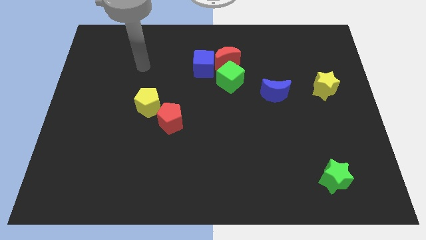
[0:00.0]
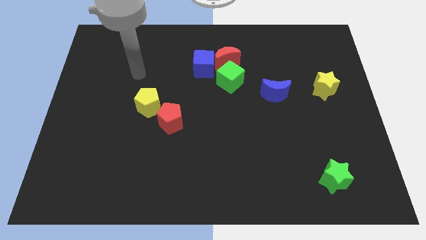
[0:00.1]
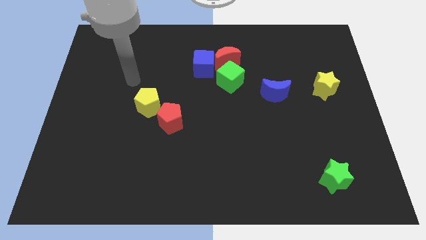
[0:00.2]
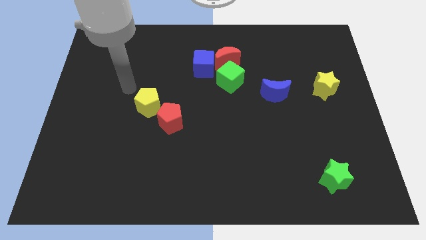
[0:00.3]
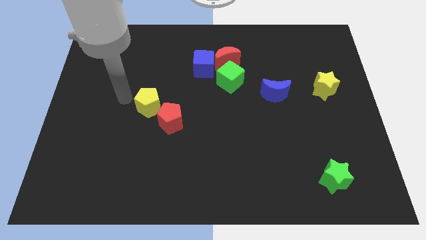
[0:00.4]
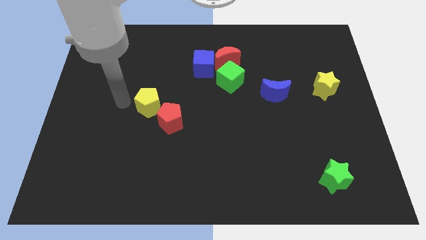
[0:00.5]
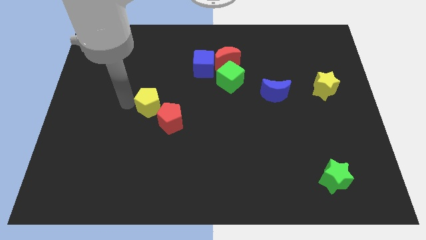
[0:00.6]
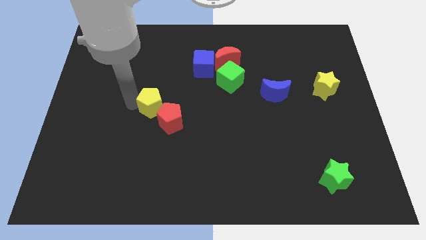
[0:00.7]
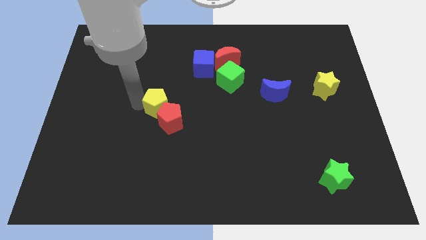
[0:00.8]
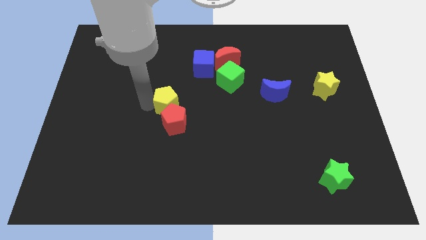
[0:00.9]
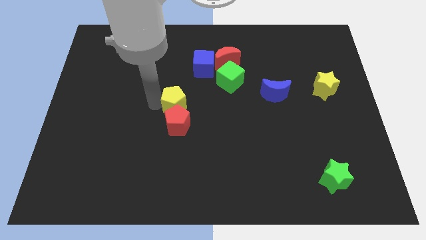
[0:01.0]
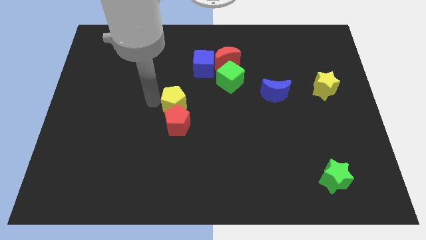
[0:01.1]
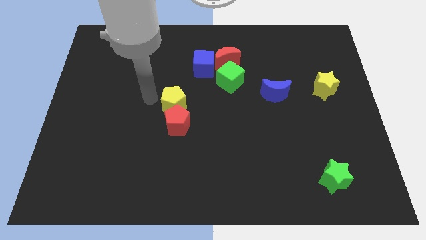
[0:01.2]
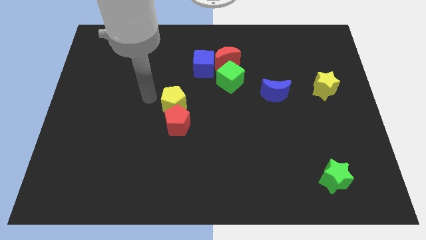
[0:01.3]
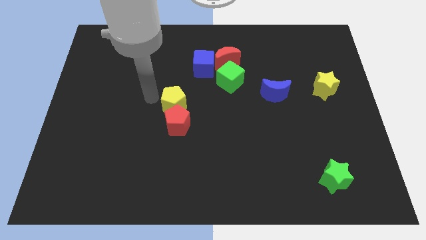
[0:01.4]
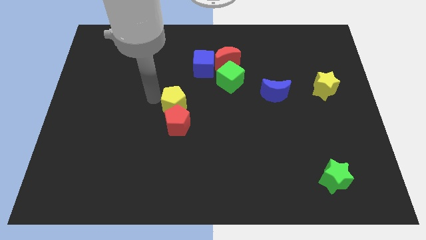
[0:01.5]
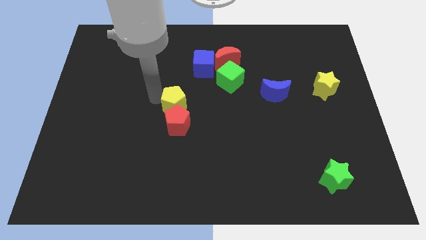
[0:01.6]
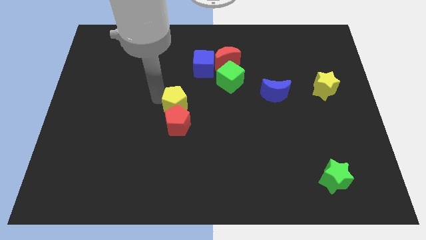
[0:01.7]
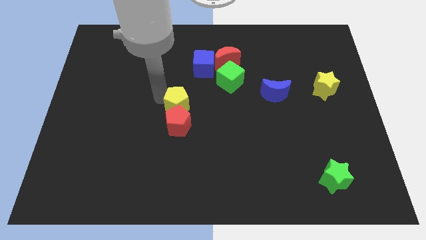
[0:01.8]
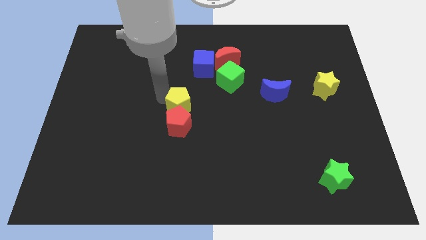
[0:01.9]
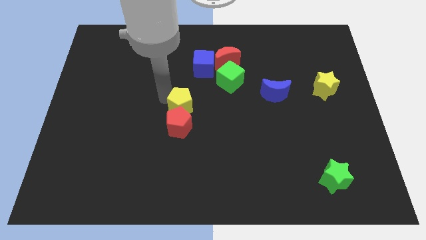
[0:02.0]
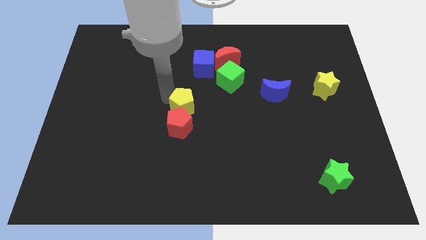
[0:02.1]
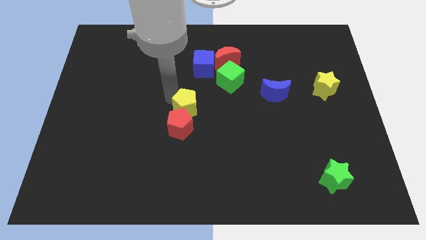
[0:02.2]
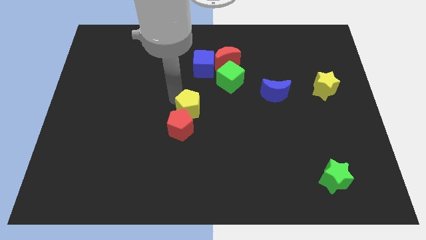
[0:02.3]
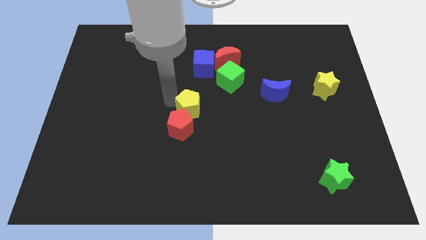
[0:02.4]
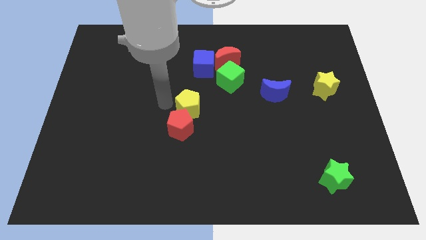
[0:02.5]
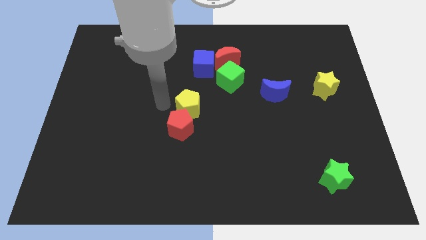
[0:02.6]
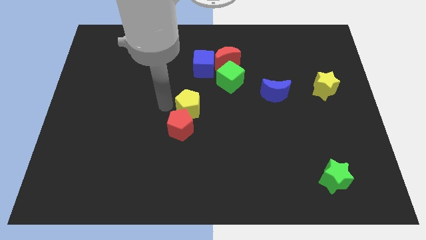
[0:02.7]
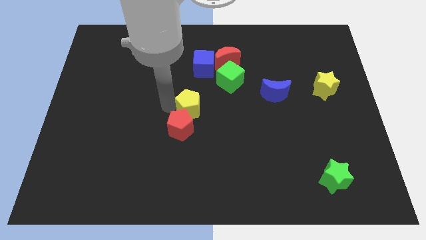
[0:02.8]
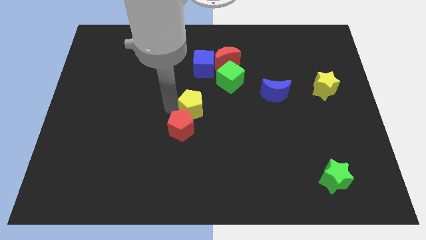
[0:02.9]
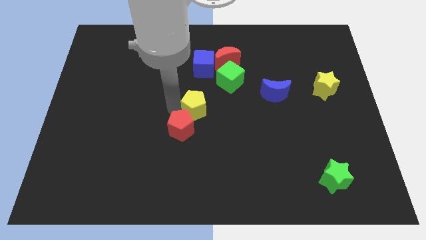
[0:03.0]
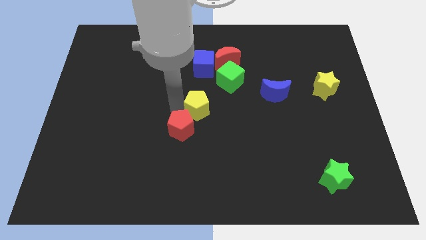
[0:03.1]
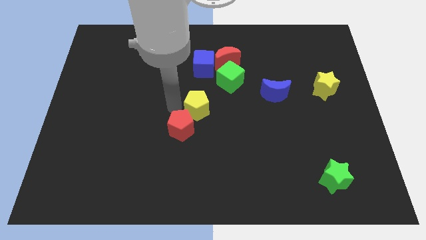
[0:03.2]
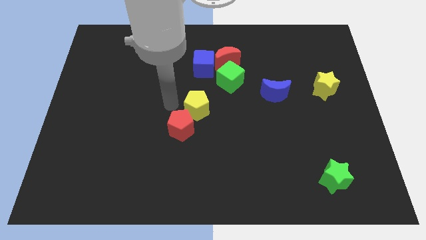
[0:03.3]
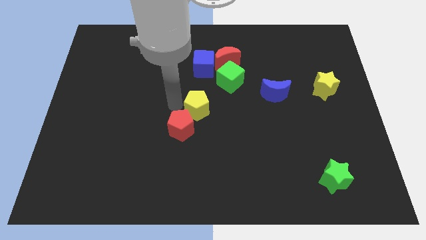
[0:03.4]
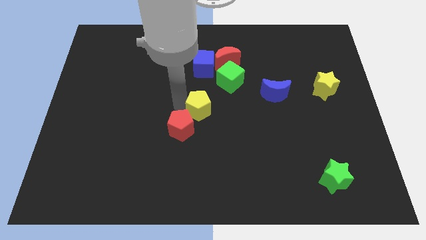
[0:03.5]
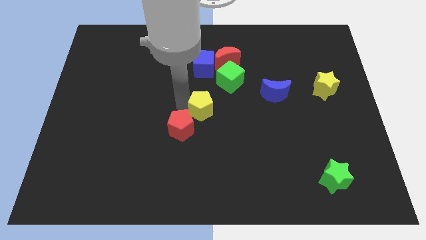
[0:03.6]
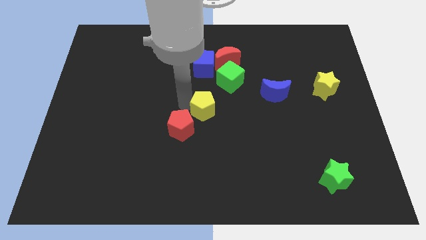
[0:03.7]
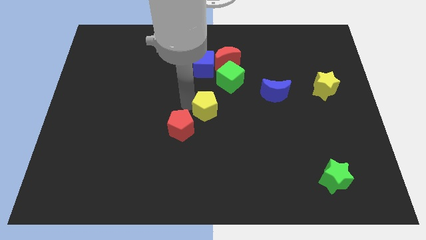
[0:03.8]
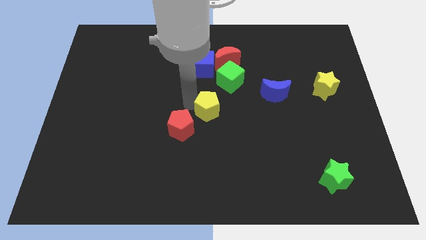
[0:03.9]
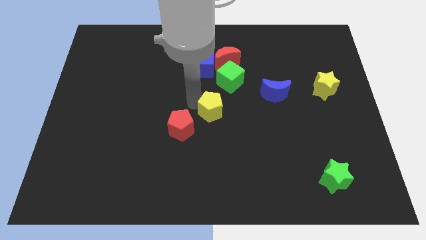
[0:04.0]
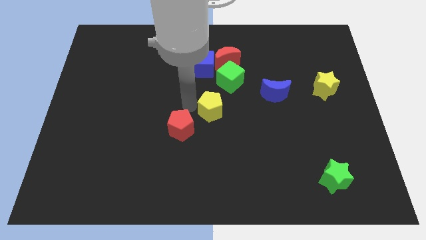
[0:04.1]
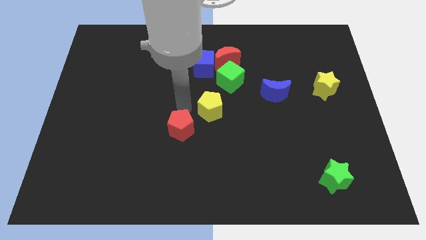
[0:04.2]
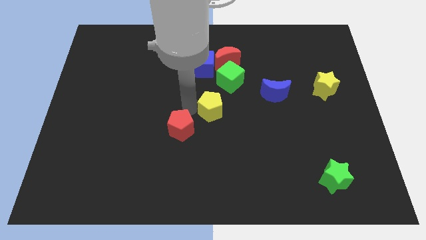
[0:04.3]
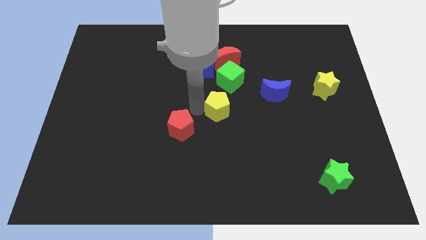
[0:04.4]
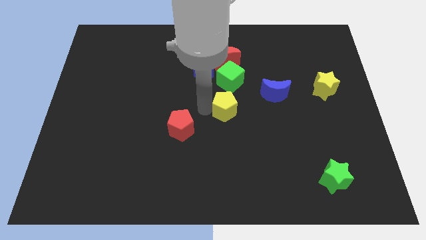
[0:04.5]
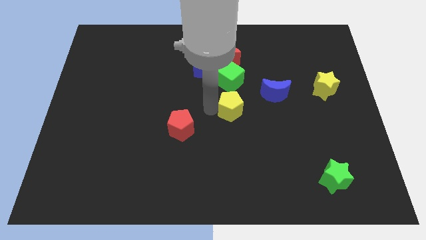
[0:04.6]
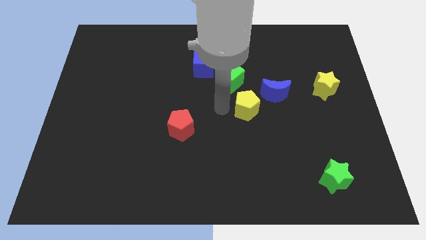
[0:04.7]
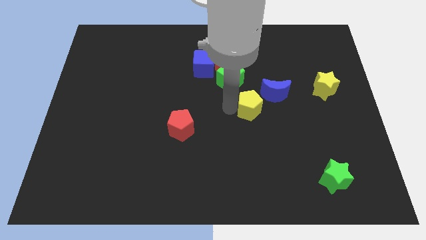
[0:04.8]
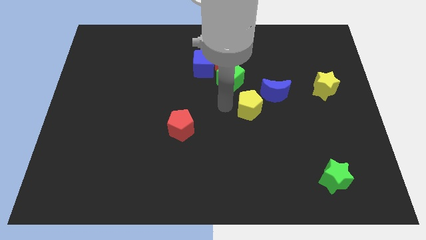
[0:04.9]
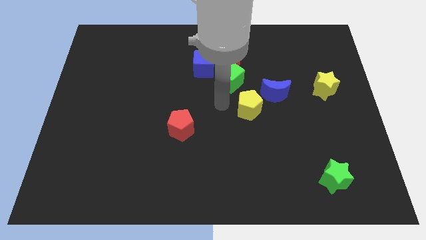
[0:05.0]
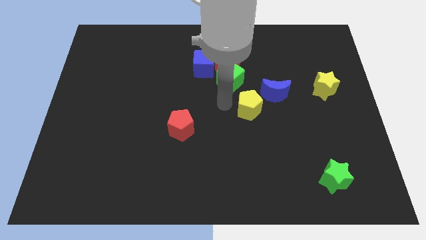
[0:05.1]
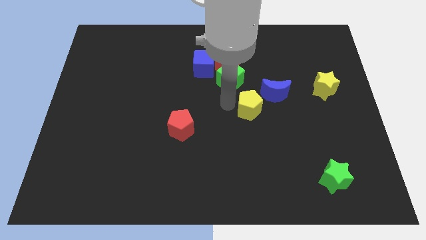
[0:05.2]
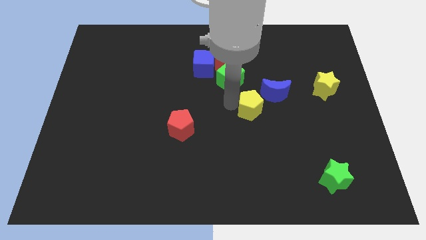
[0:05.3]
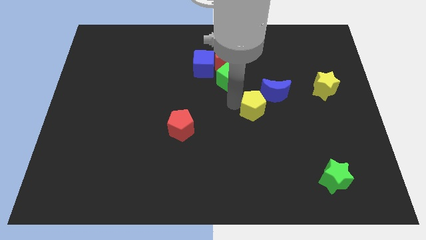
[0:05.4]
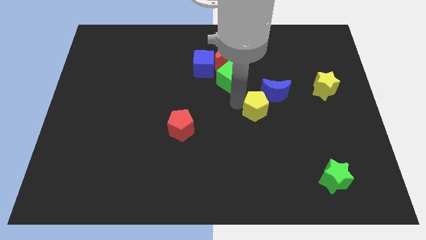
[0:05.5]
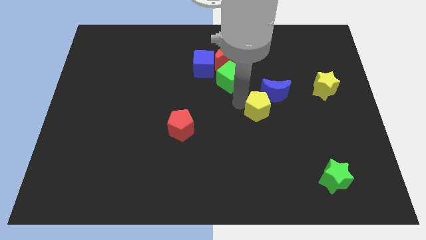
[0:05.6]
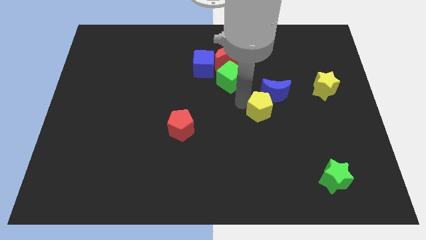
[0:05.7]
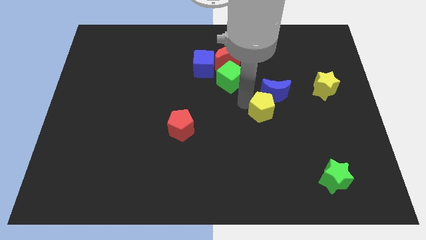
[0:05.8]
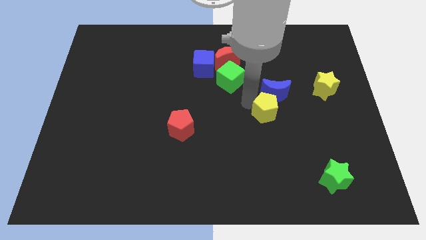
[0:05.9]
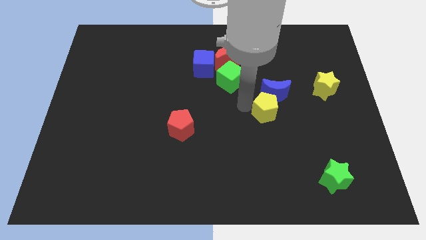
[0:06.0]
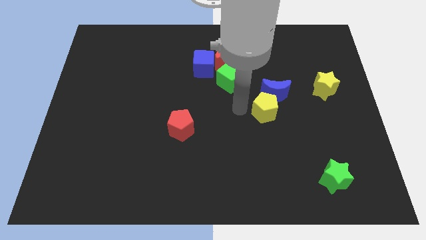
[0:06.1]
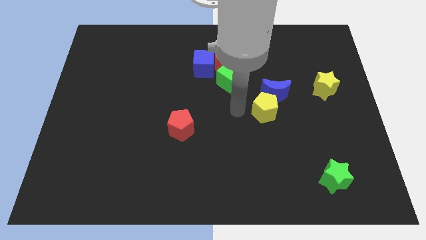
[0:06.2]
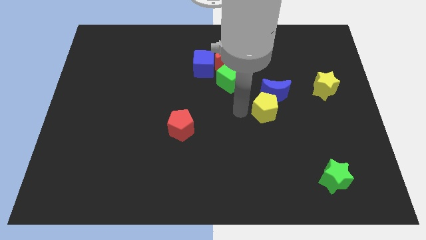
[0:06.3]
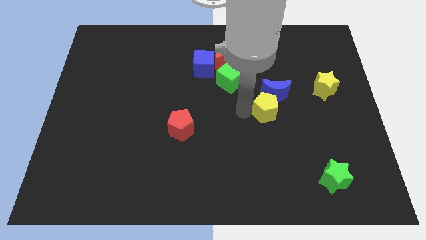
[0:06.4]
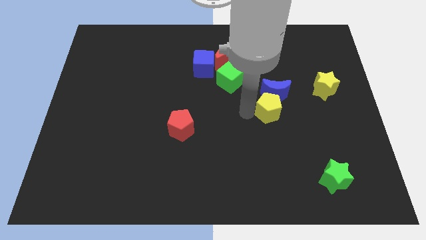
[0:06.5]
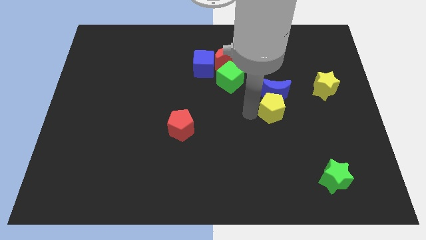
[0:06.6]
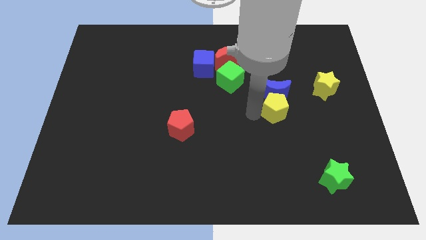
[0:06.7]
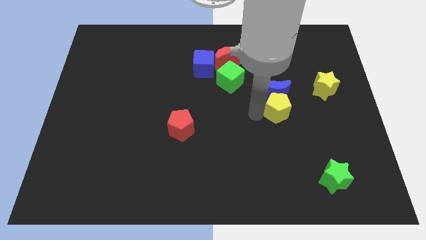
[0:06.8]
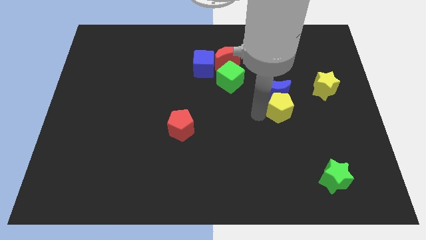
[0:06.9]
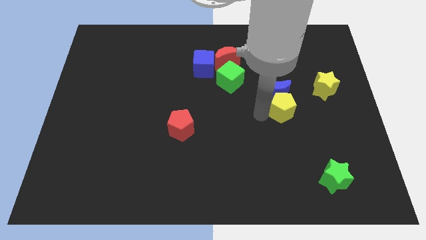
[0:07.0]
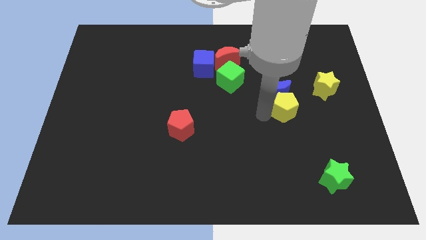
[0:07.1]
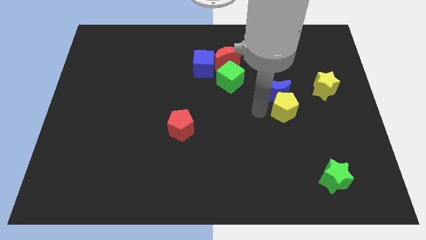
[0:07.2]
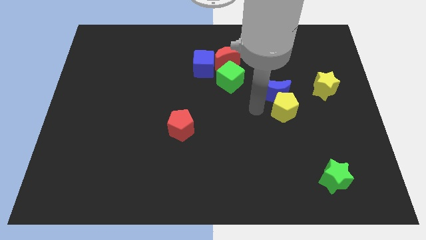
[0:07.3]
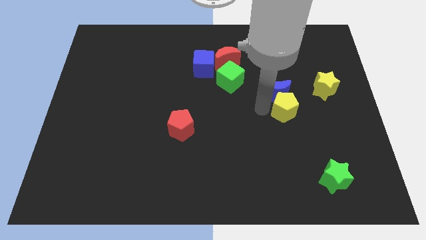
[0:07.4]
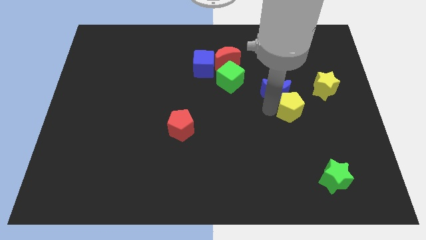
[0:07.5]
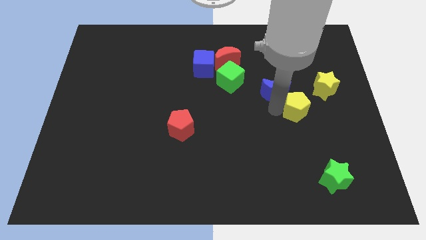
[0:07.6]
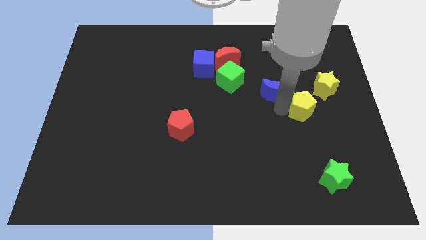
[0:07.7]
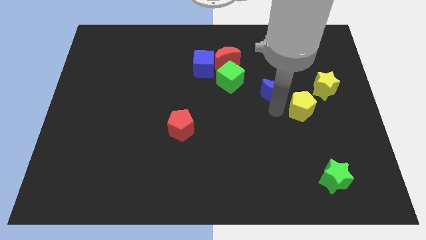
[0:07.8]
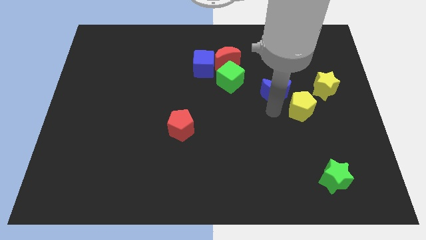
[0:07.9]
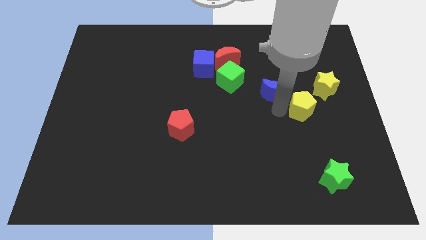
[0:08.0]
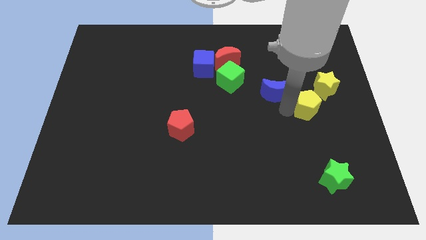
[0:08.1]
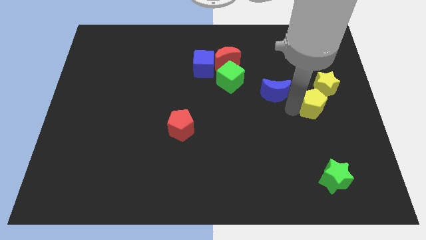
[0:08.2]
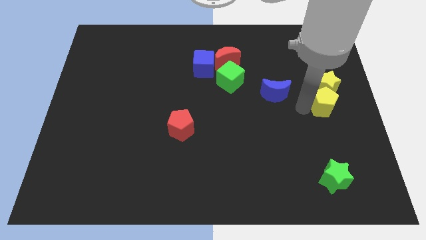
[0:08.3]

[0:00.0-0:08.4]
move the yellow pentagon to the right side of the board
